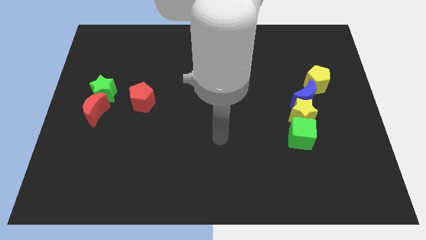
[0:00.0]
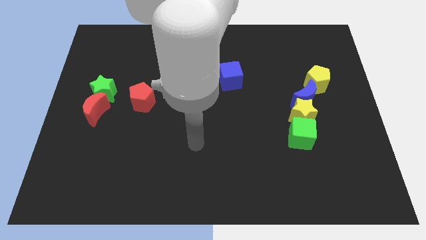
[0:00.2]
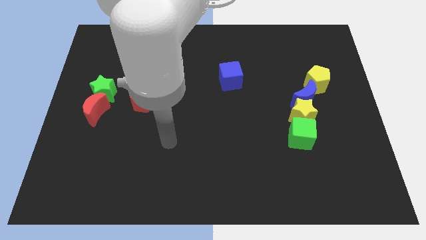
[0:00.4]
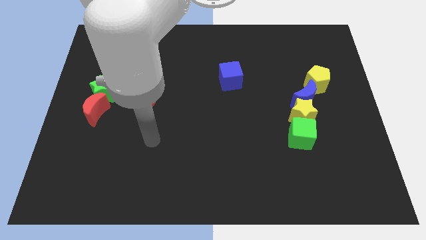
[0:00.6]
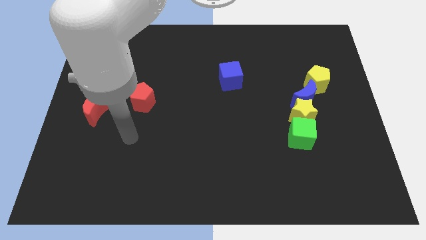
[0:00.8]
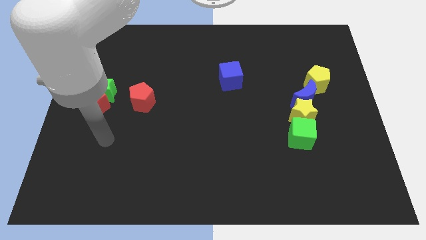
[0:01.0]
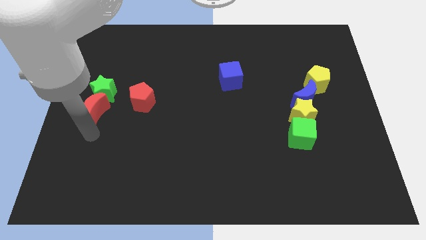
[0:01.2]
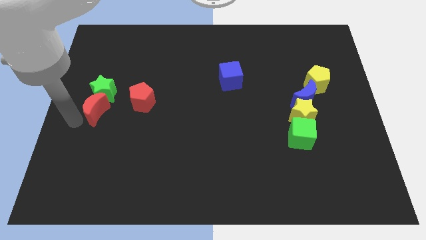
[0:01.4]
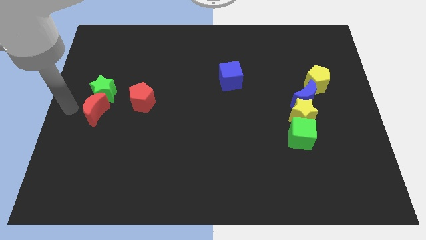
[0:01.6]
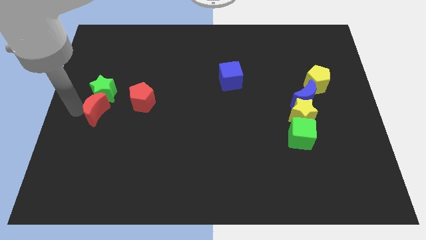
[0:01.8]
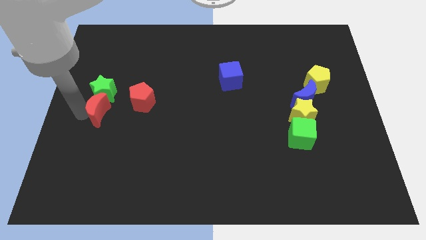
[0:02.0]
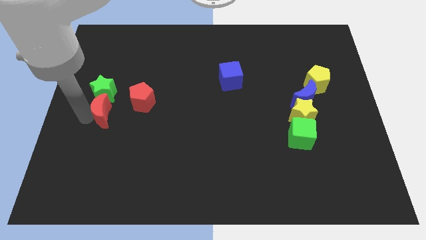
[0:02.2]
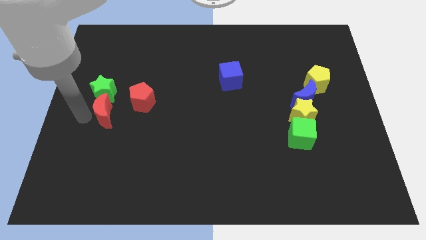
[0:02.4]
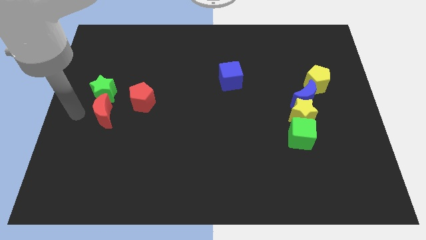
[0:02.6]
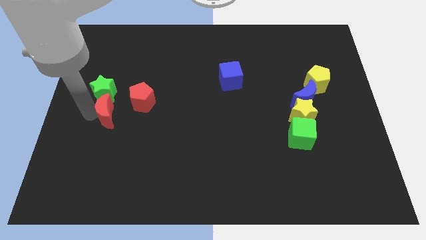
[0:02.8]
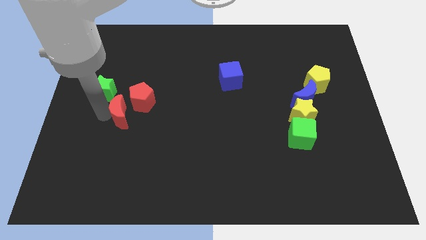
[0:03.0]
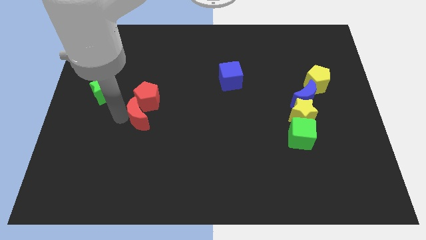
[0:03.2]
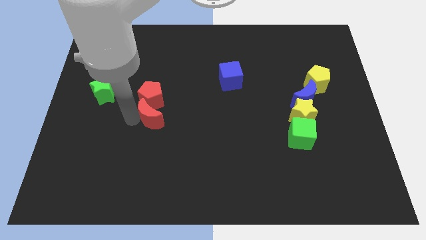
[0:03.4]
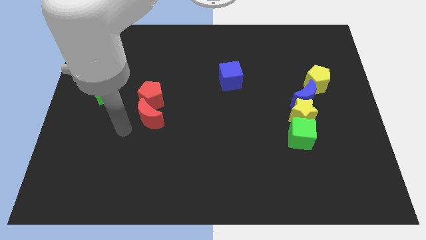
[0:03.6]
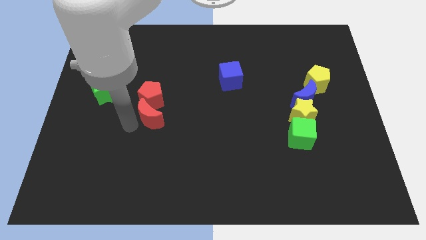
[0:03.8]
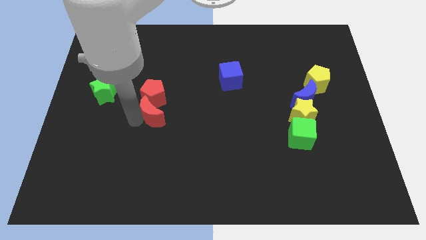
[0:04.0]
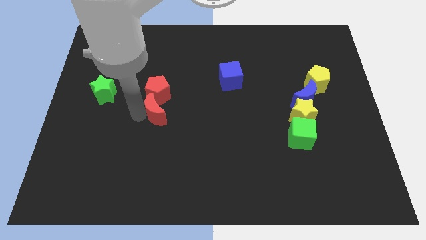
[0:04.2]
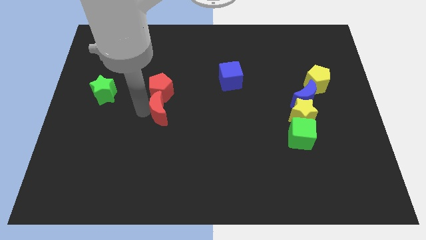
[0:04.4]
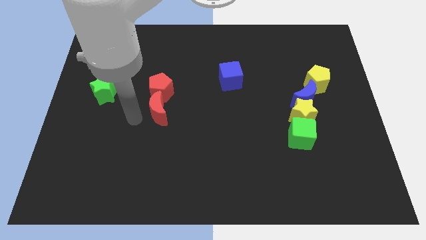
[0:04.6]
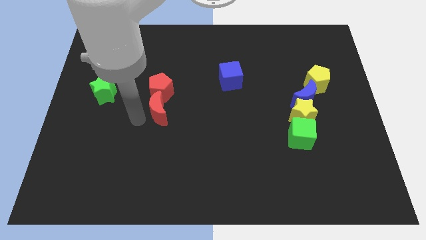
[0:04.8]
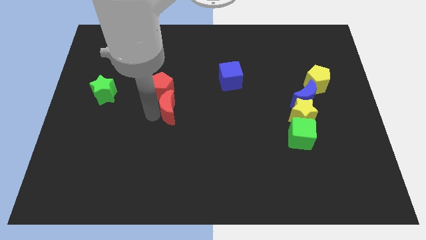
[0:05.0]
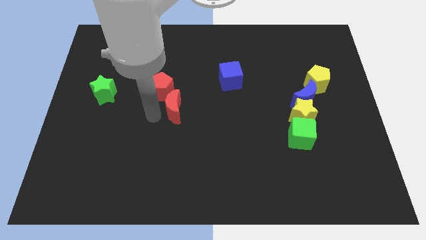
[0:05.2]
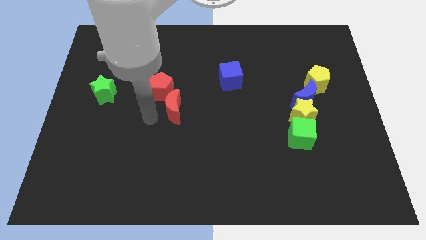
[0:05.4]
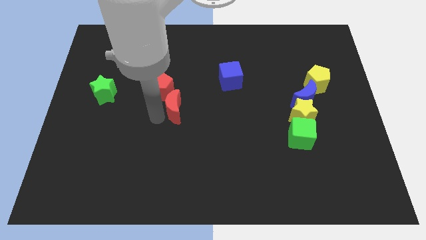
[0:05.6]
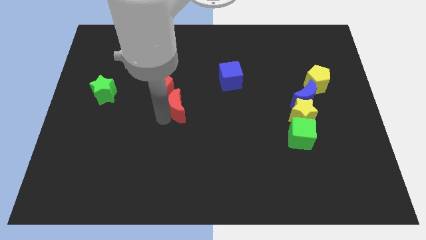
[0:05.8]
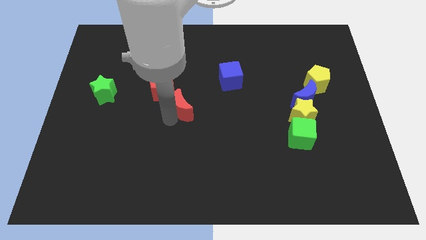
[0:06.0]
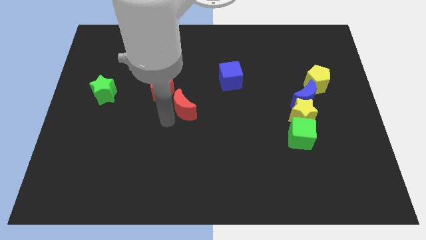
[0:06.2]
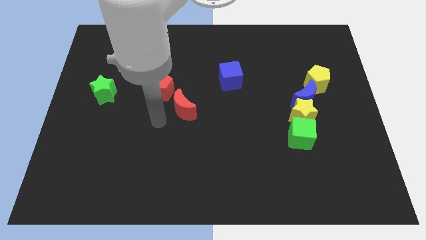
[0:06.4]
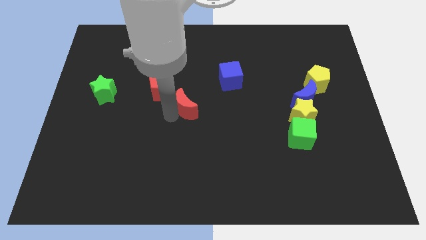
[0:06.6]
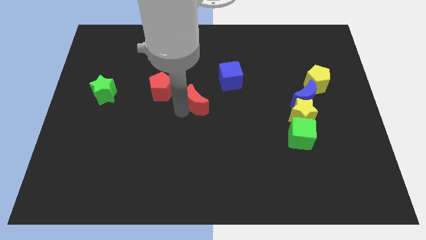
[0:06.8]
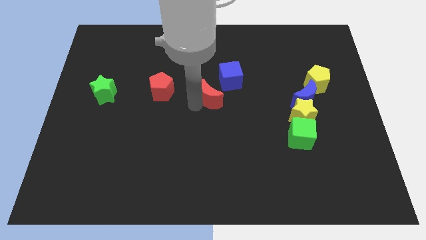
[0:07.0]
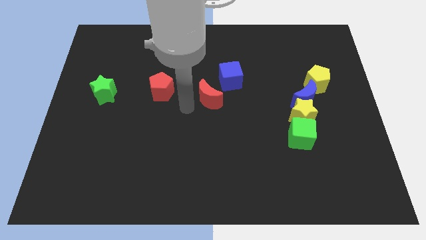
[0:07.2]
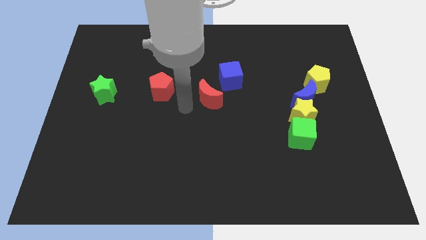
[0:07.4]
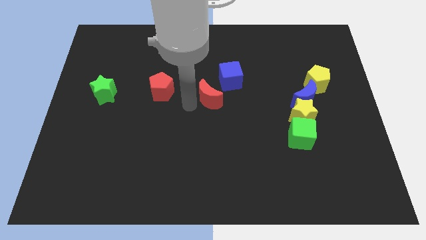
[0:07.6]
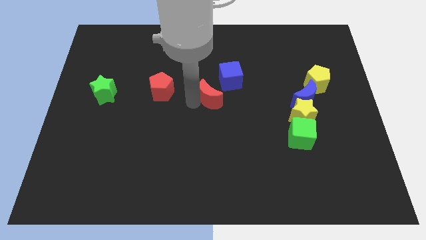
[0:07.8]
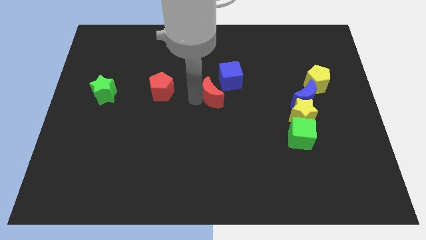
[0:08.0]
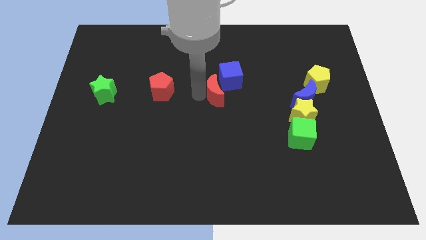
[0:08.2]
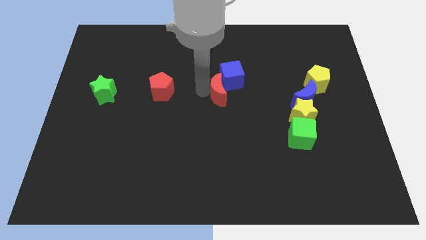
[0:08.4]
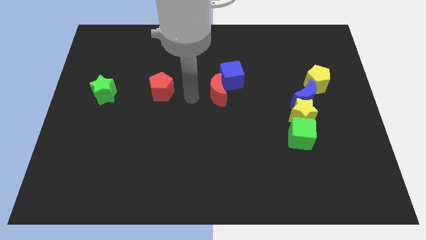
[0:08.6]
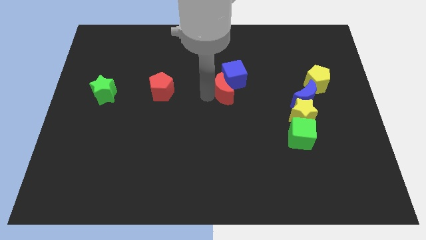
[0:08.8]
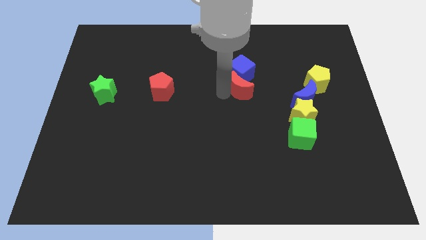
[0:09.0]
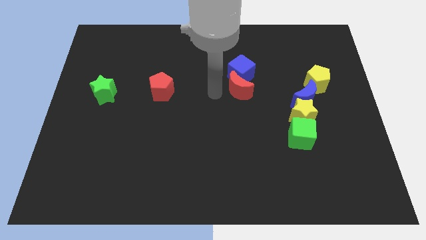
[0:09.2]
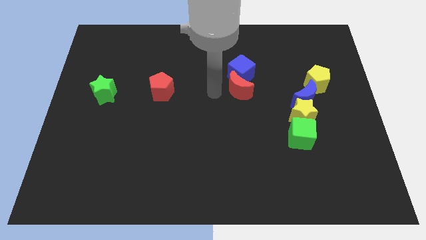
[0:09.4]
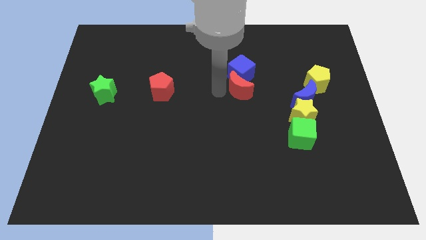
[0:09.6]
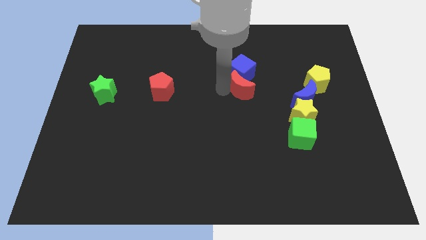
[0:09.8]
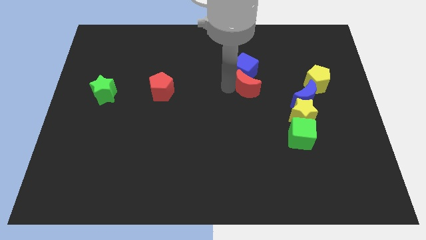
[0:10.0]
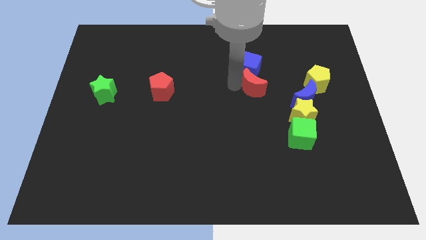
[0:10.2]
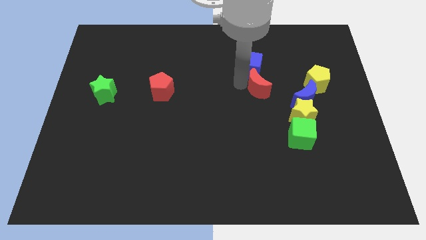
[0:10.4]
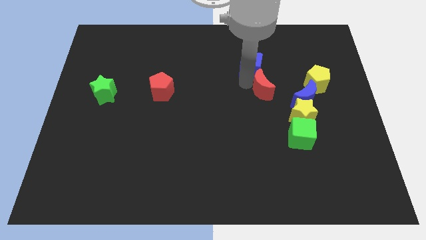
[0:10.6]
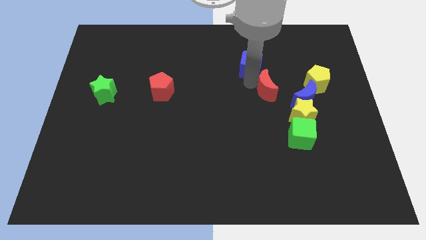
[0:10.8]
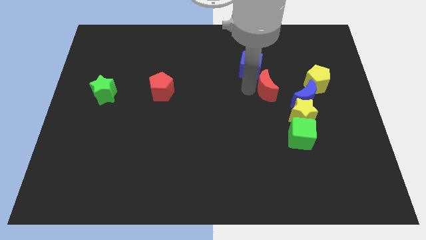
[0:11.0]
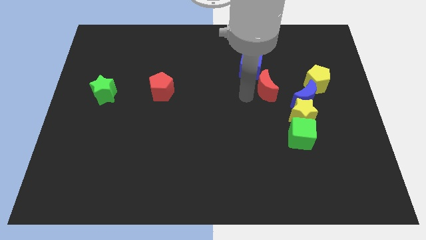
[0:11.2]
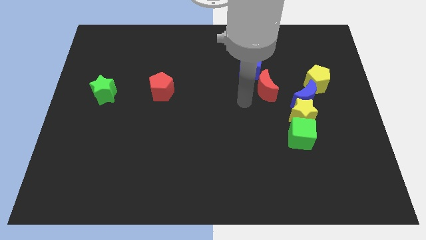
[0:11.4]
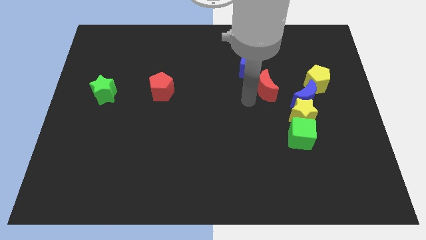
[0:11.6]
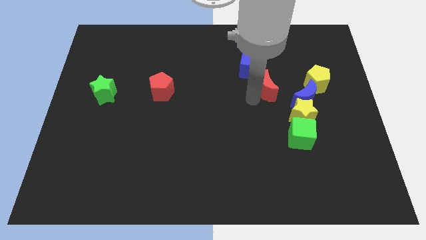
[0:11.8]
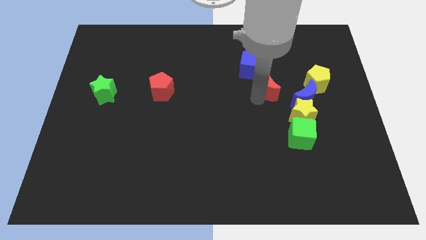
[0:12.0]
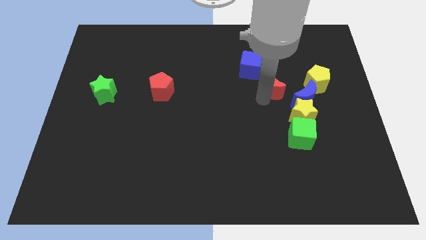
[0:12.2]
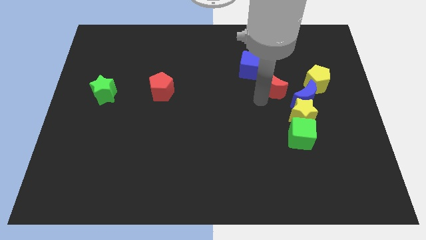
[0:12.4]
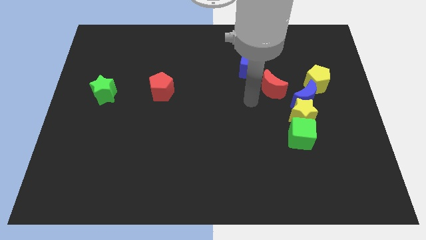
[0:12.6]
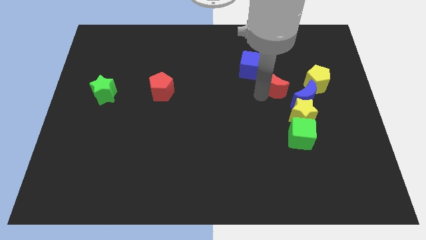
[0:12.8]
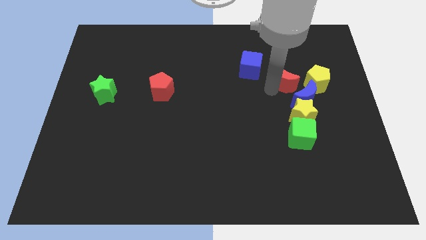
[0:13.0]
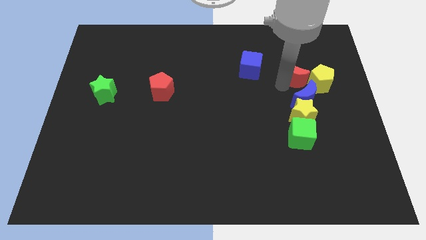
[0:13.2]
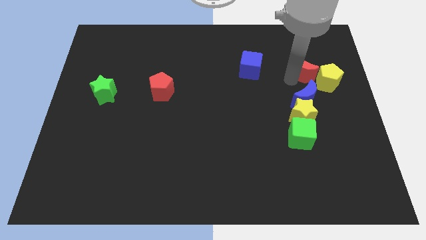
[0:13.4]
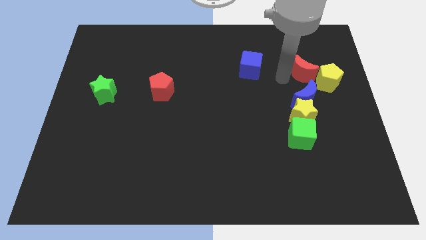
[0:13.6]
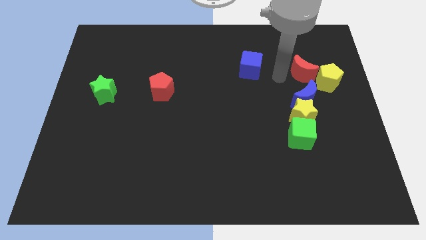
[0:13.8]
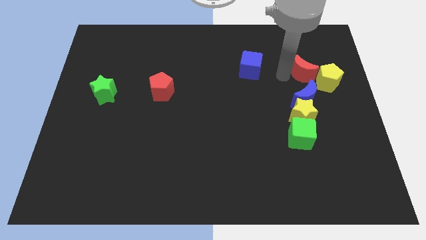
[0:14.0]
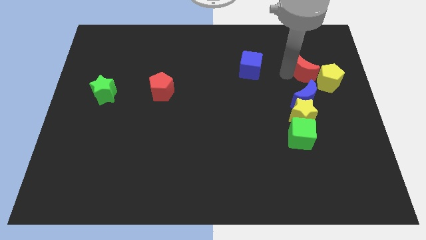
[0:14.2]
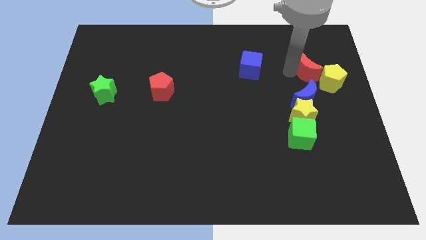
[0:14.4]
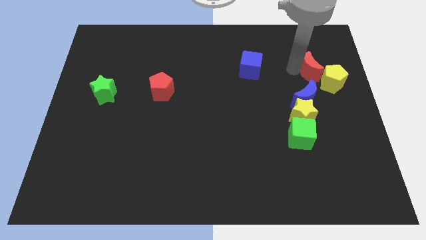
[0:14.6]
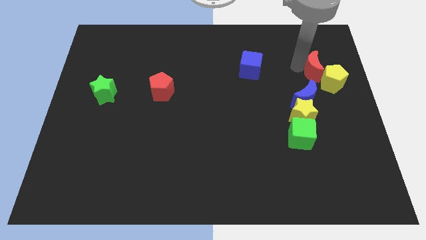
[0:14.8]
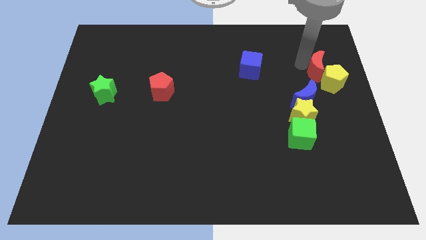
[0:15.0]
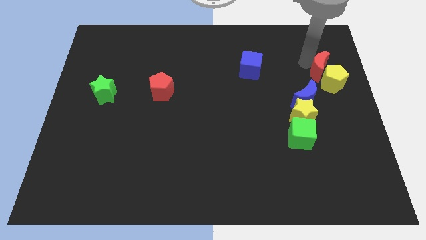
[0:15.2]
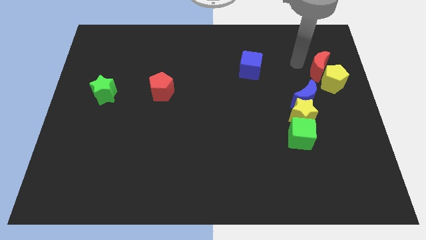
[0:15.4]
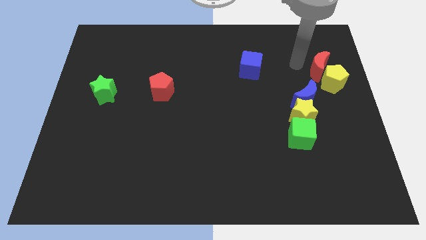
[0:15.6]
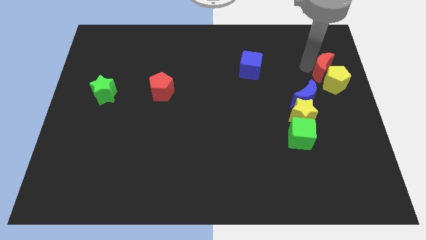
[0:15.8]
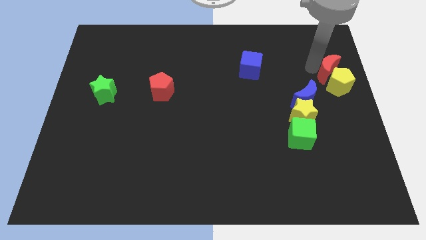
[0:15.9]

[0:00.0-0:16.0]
push the red moon to the center right
